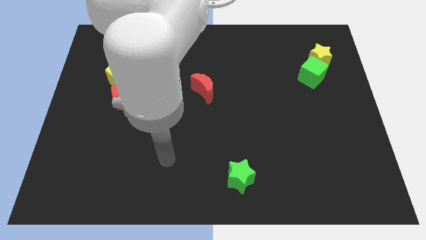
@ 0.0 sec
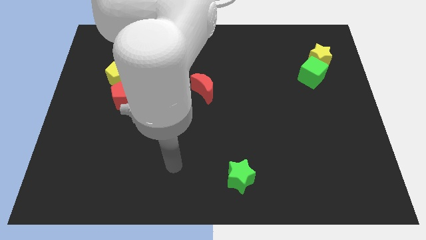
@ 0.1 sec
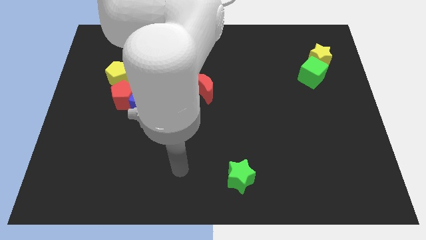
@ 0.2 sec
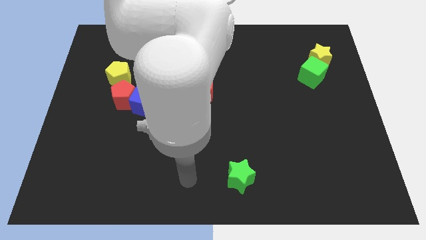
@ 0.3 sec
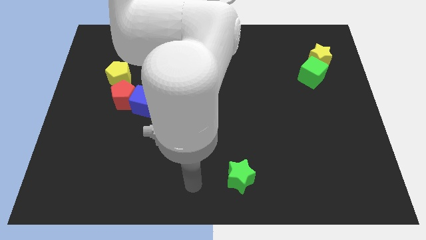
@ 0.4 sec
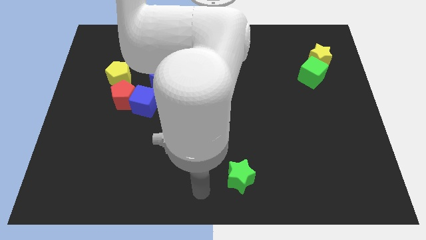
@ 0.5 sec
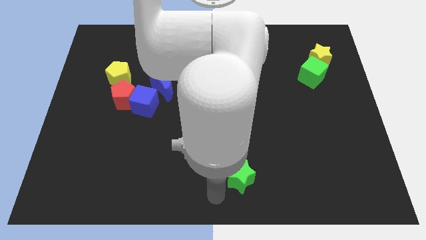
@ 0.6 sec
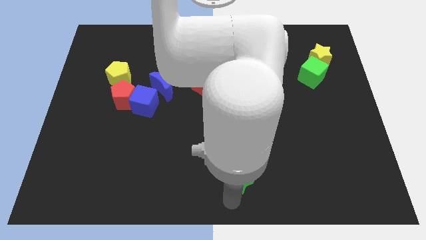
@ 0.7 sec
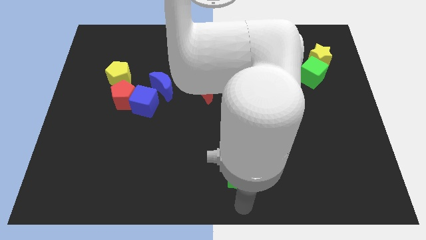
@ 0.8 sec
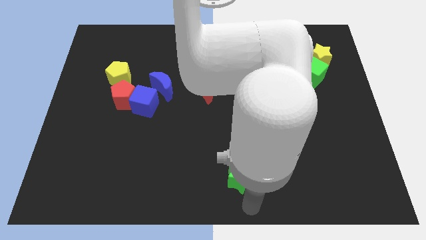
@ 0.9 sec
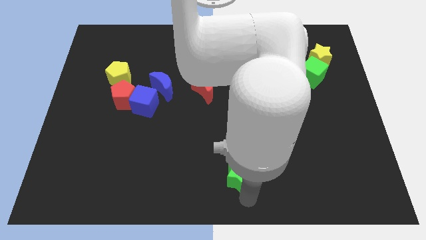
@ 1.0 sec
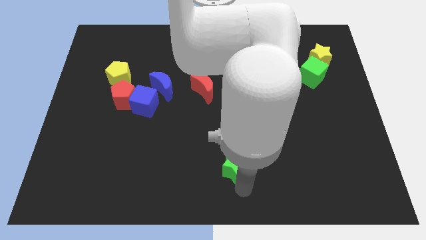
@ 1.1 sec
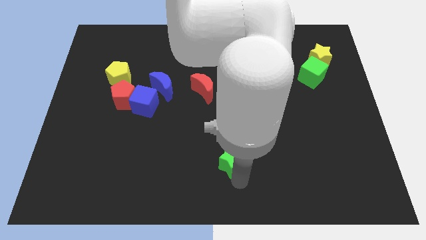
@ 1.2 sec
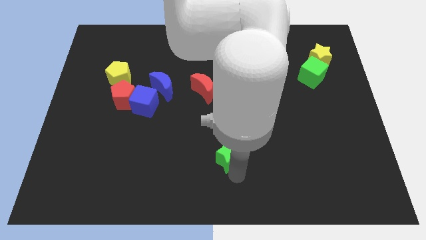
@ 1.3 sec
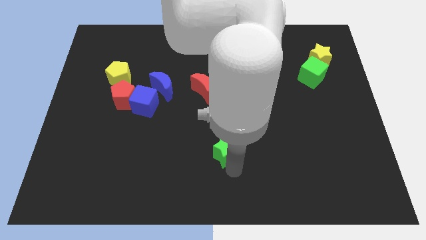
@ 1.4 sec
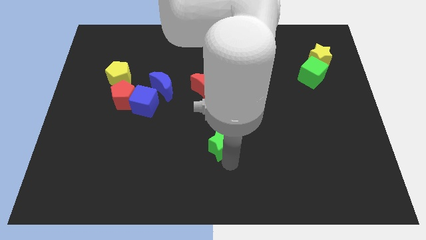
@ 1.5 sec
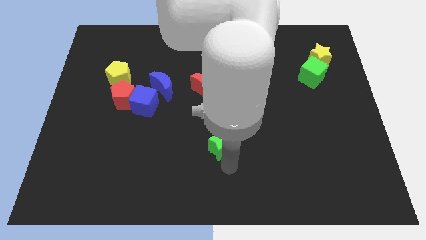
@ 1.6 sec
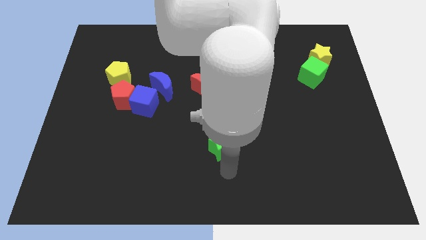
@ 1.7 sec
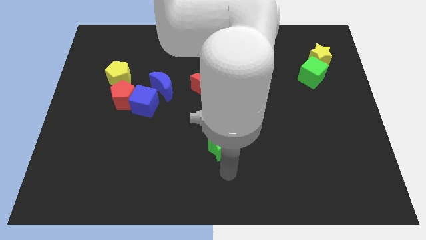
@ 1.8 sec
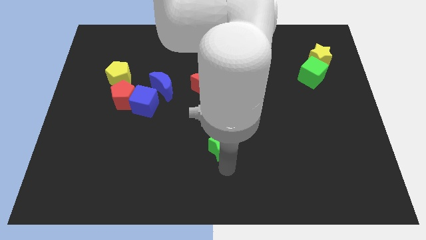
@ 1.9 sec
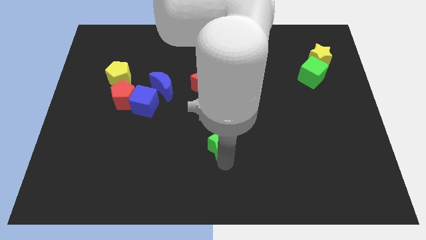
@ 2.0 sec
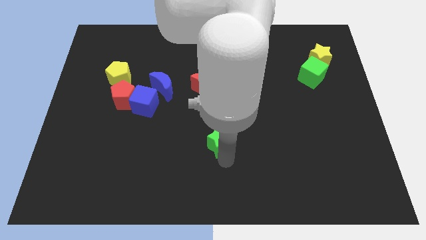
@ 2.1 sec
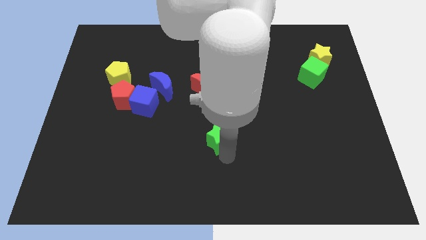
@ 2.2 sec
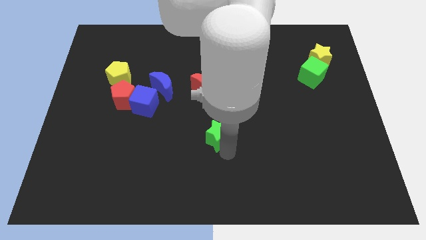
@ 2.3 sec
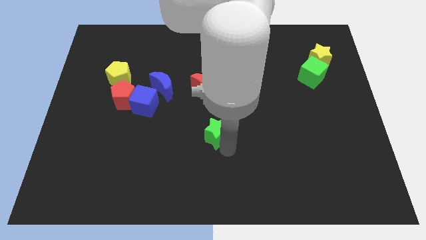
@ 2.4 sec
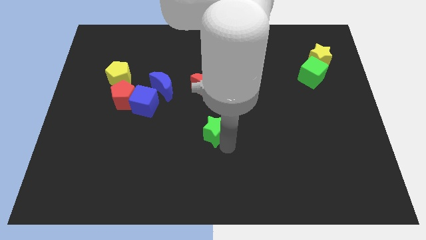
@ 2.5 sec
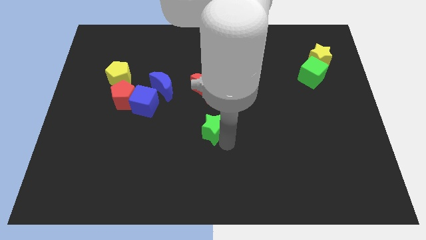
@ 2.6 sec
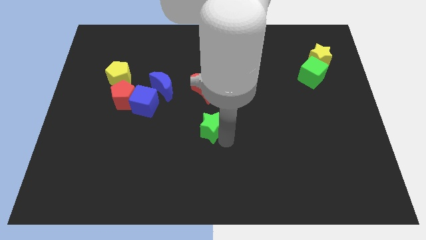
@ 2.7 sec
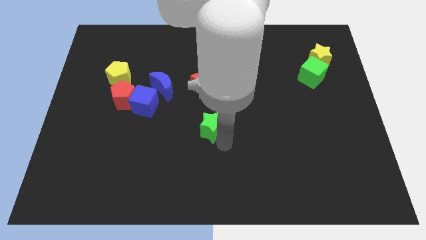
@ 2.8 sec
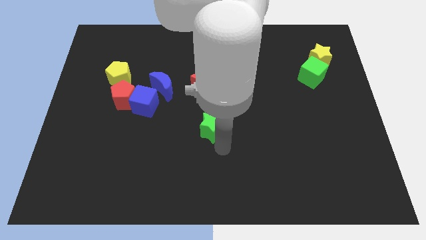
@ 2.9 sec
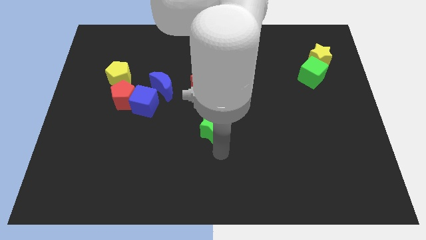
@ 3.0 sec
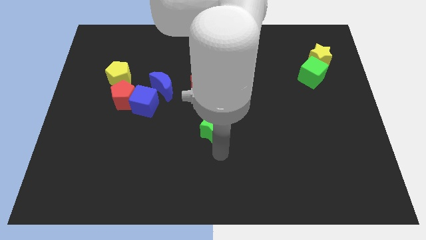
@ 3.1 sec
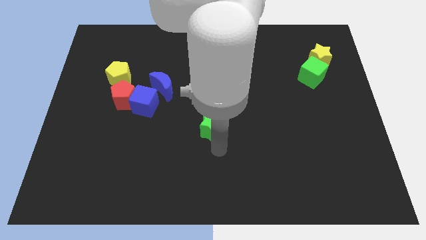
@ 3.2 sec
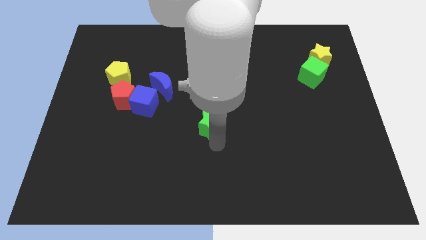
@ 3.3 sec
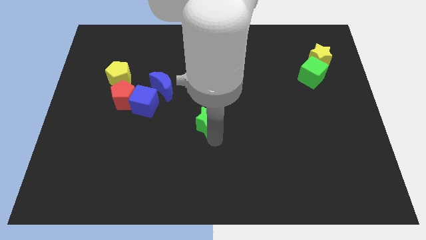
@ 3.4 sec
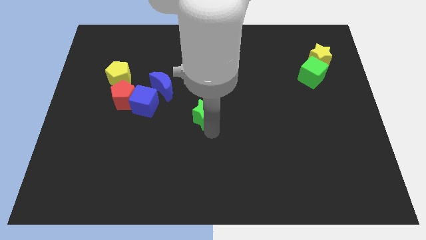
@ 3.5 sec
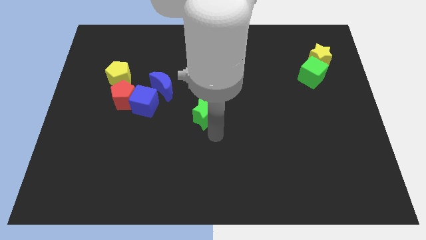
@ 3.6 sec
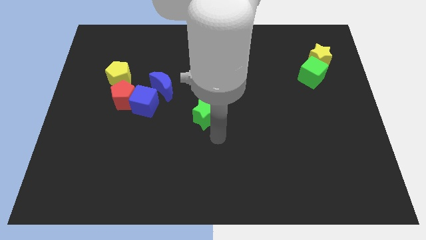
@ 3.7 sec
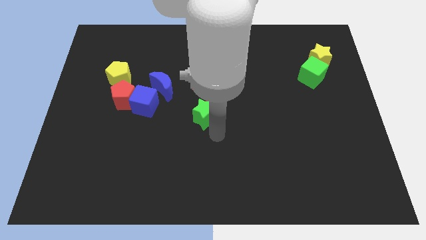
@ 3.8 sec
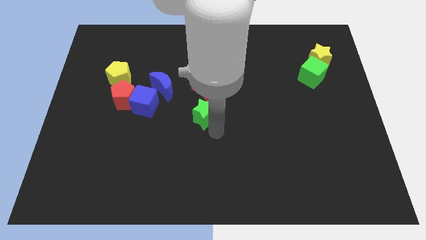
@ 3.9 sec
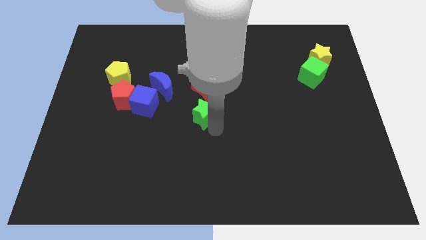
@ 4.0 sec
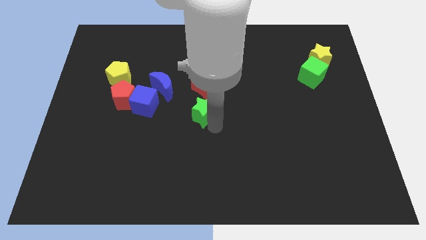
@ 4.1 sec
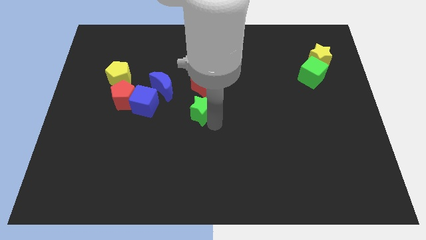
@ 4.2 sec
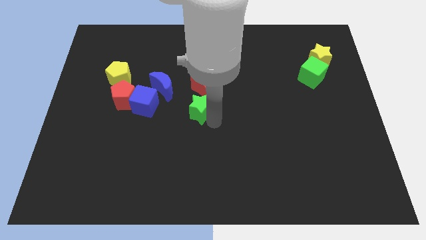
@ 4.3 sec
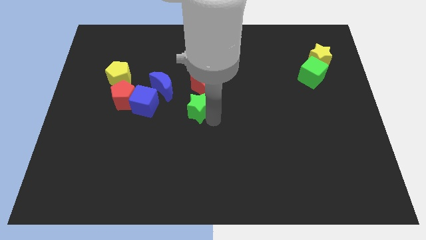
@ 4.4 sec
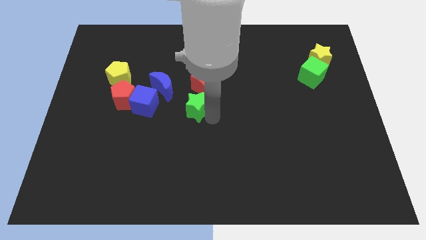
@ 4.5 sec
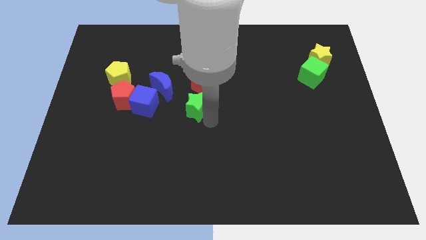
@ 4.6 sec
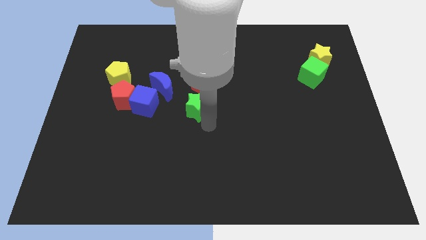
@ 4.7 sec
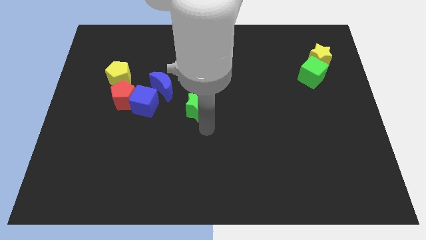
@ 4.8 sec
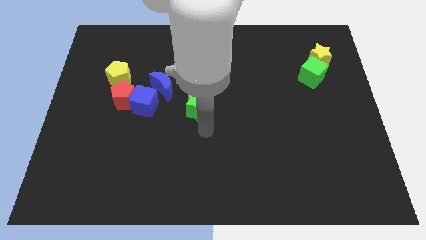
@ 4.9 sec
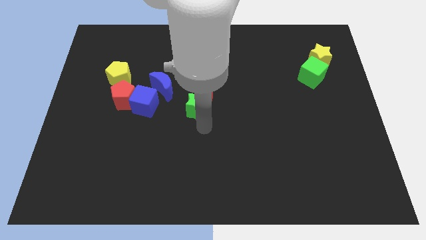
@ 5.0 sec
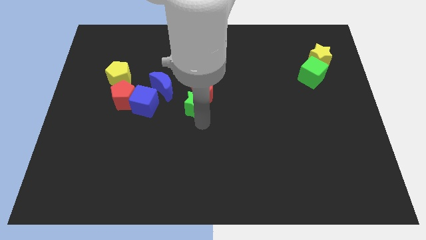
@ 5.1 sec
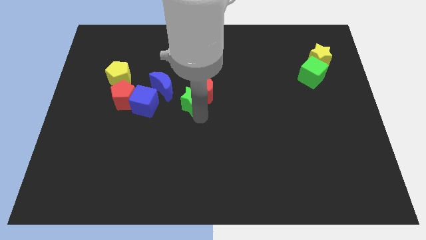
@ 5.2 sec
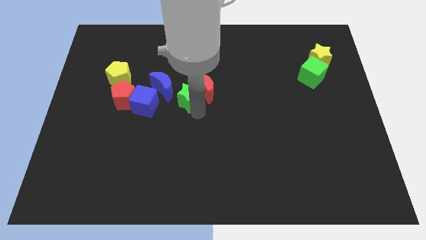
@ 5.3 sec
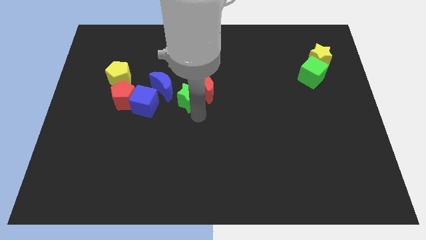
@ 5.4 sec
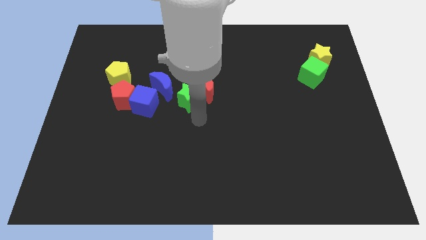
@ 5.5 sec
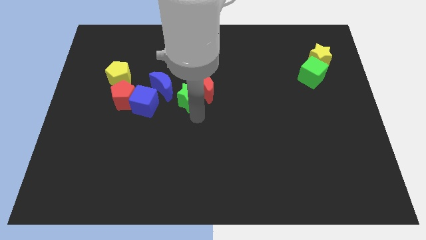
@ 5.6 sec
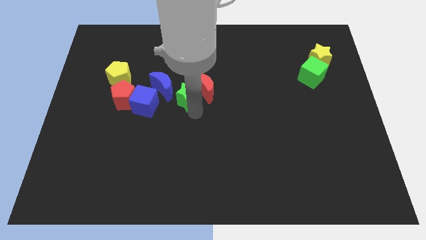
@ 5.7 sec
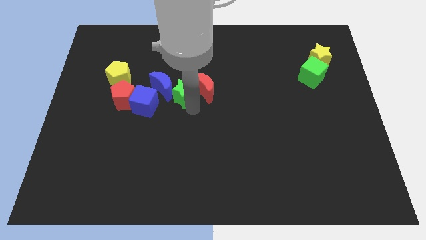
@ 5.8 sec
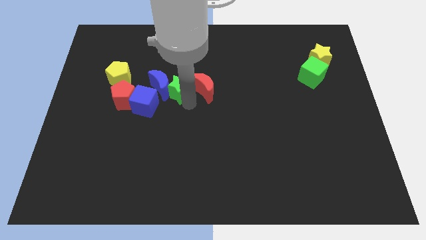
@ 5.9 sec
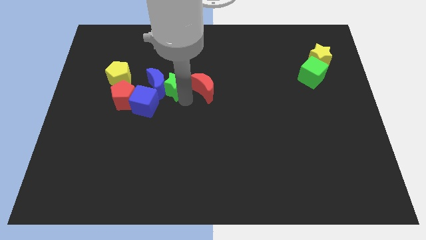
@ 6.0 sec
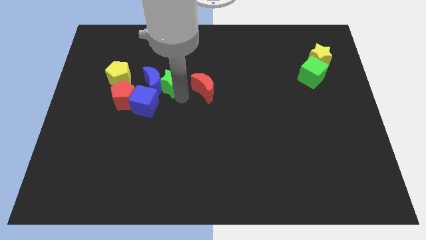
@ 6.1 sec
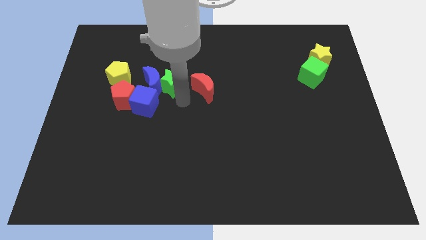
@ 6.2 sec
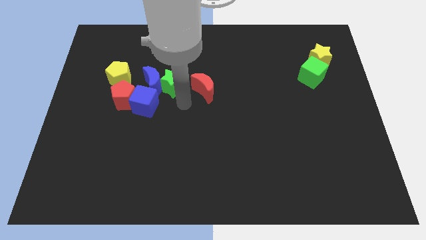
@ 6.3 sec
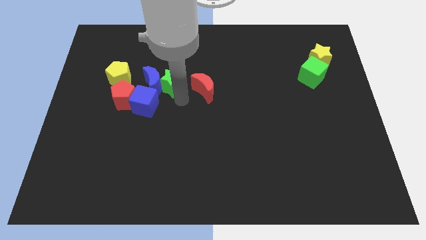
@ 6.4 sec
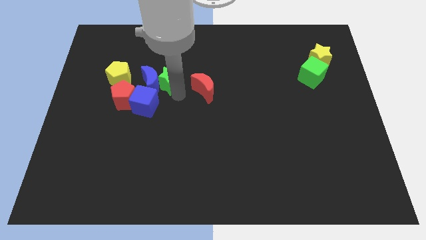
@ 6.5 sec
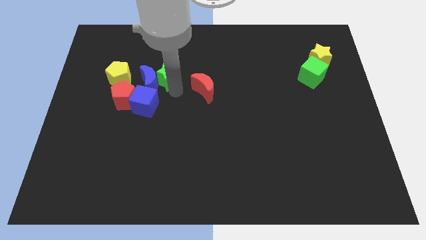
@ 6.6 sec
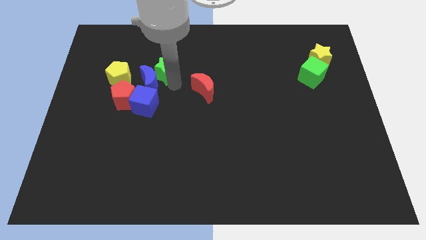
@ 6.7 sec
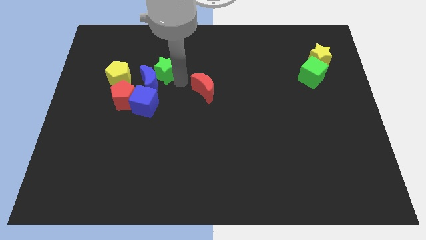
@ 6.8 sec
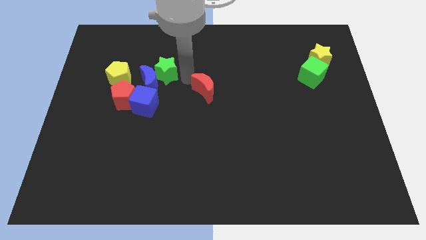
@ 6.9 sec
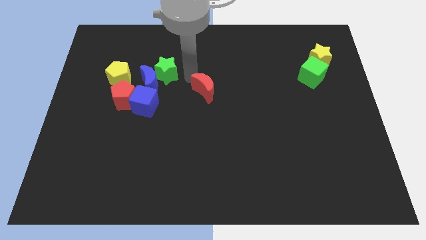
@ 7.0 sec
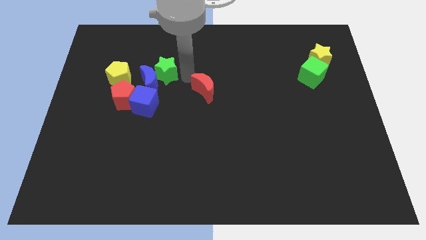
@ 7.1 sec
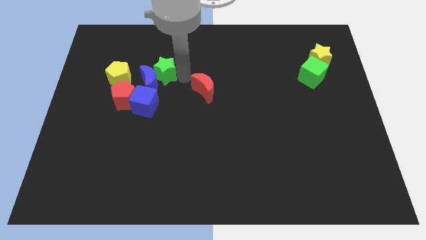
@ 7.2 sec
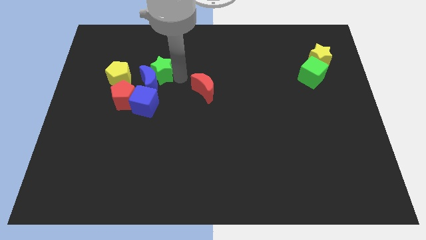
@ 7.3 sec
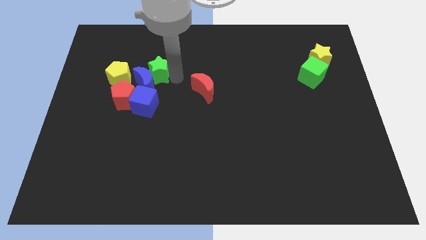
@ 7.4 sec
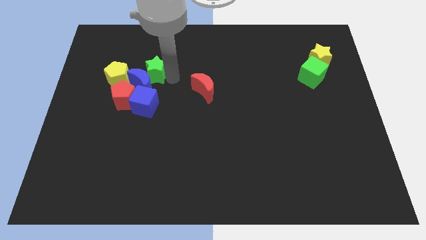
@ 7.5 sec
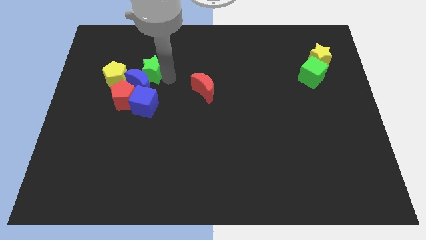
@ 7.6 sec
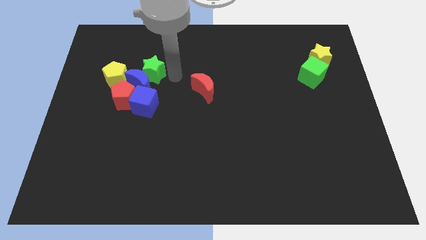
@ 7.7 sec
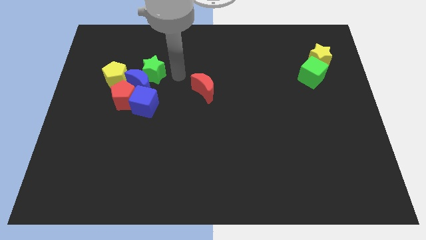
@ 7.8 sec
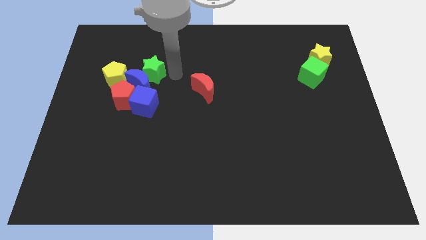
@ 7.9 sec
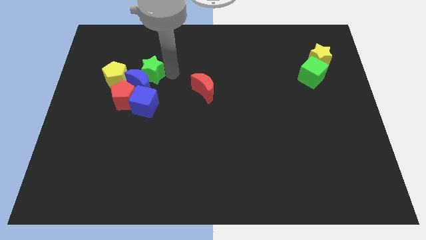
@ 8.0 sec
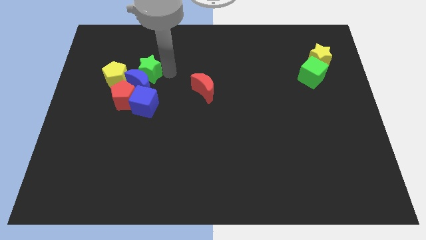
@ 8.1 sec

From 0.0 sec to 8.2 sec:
move the green star to the top left of the blue moon
